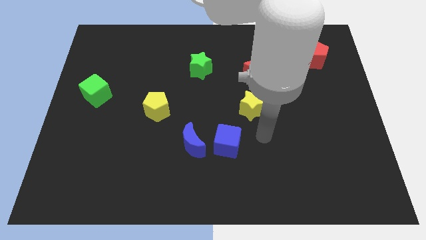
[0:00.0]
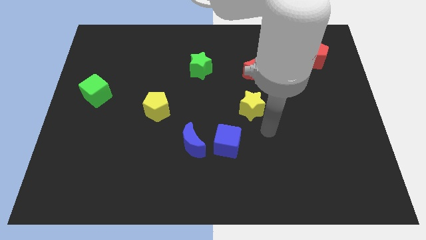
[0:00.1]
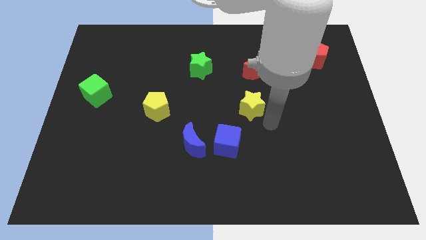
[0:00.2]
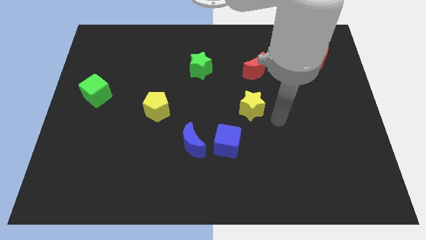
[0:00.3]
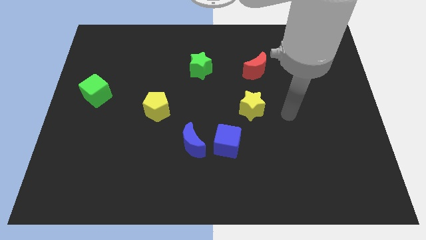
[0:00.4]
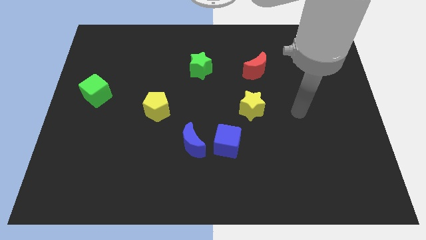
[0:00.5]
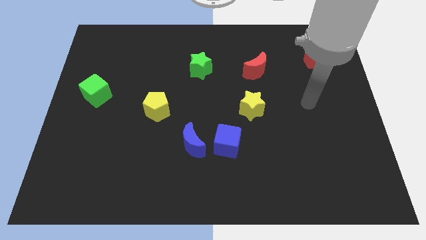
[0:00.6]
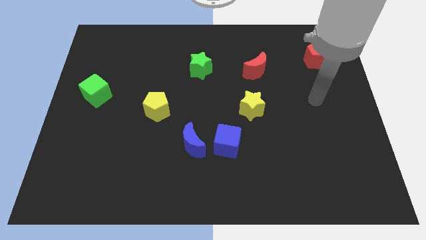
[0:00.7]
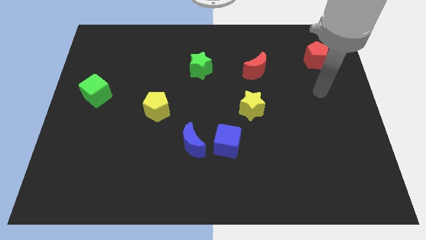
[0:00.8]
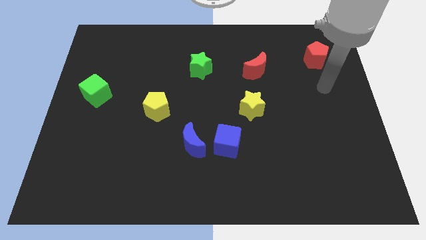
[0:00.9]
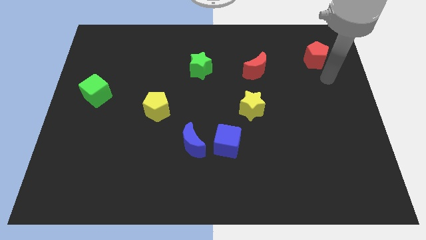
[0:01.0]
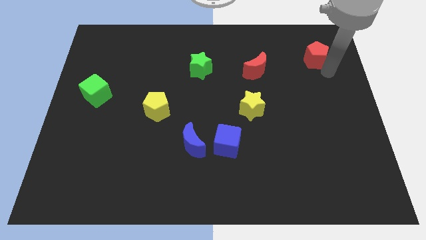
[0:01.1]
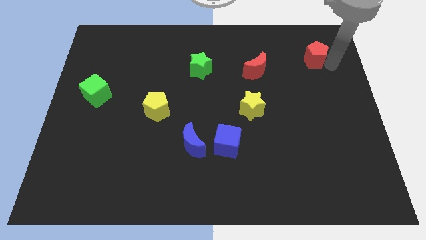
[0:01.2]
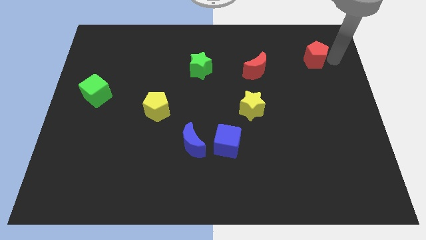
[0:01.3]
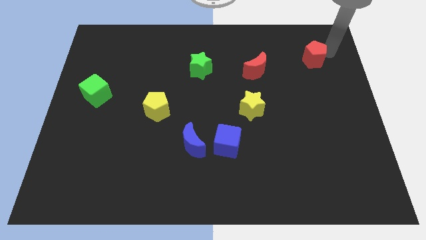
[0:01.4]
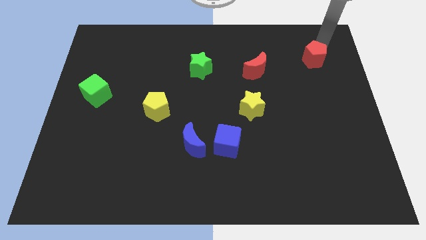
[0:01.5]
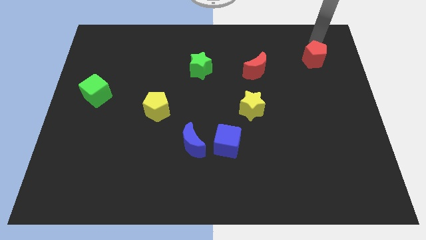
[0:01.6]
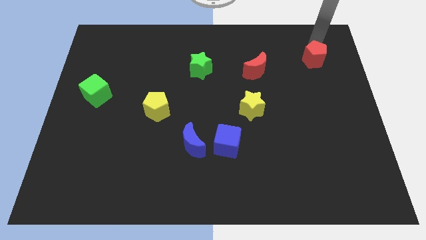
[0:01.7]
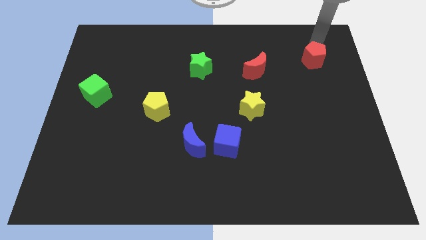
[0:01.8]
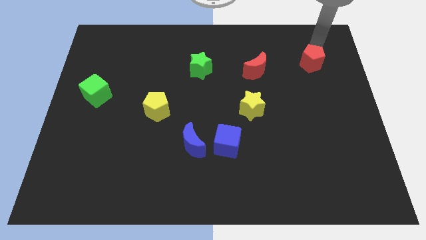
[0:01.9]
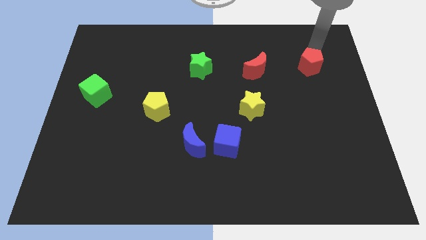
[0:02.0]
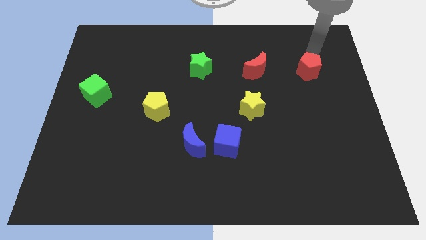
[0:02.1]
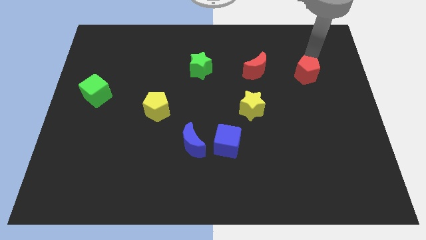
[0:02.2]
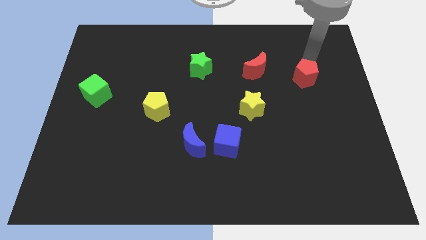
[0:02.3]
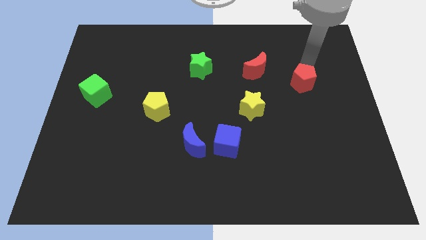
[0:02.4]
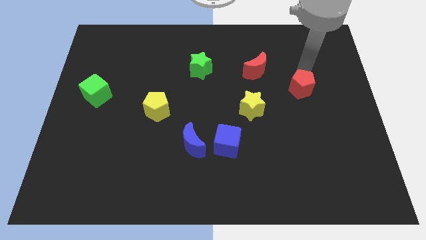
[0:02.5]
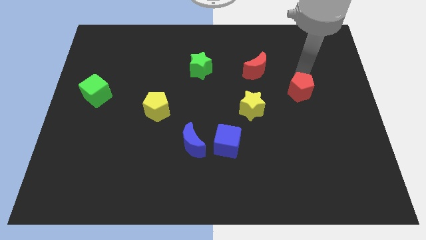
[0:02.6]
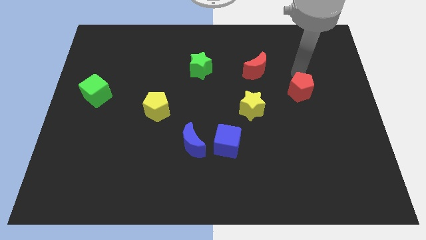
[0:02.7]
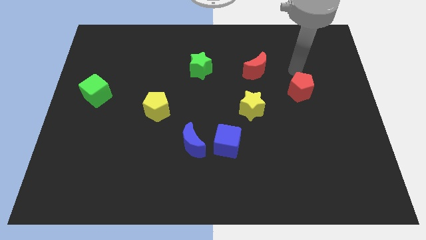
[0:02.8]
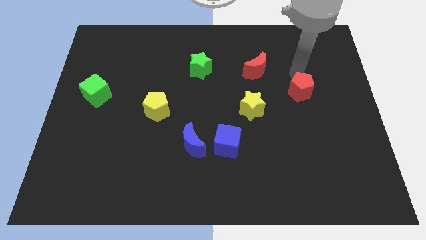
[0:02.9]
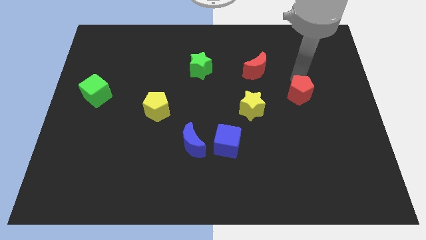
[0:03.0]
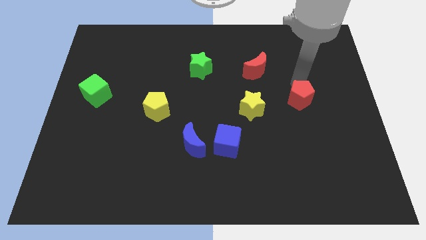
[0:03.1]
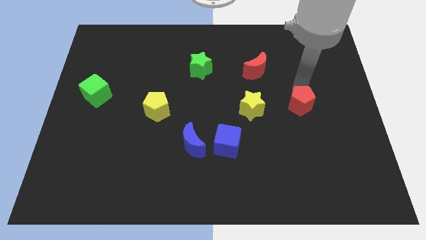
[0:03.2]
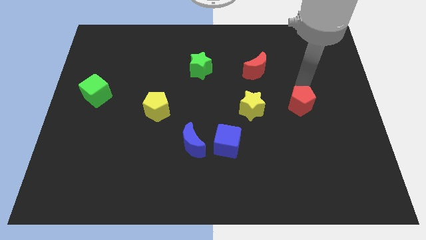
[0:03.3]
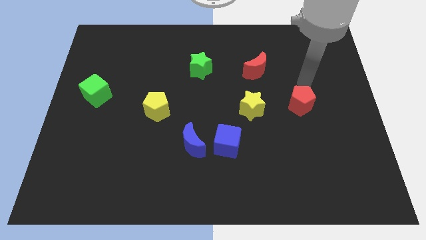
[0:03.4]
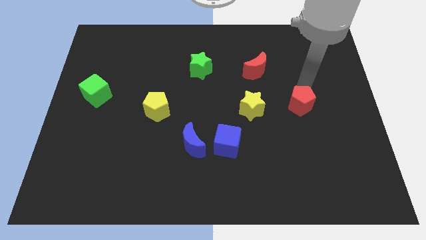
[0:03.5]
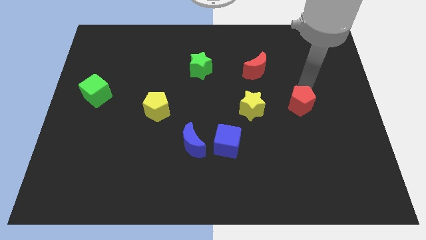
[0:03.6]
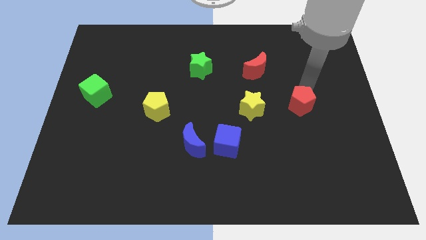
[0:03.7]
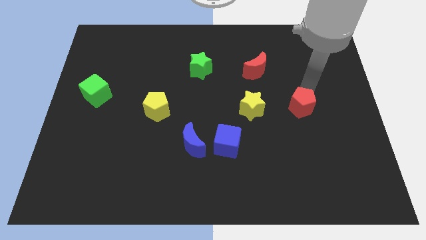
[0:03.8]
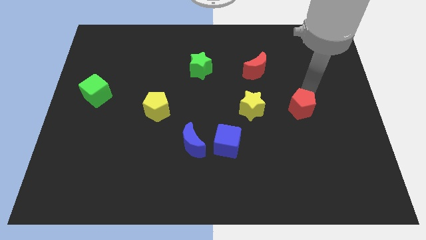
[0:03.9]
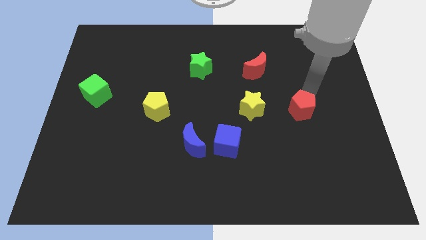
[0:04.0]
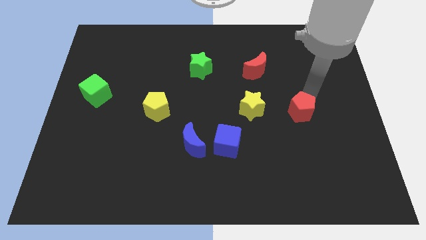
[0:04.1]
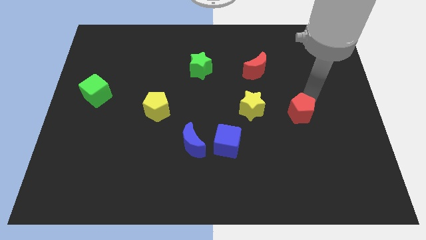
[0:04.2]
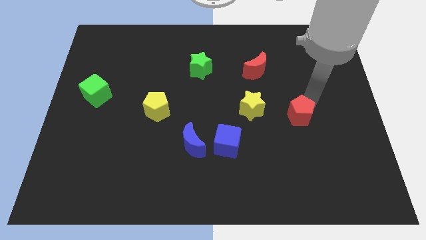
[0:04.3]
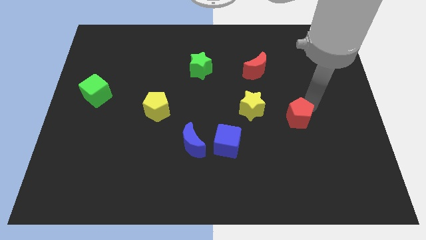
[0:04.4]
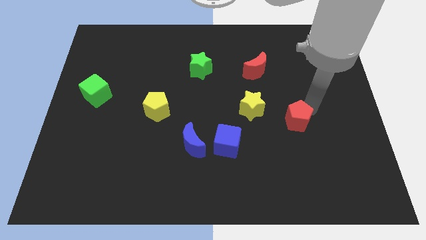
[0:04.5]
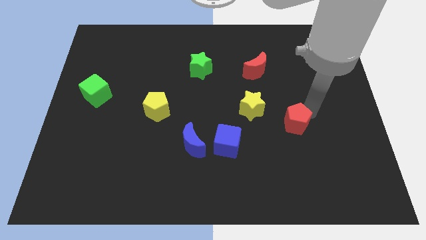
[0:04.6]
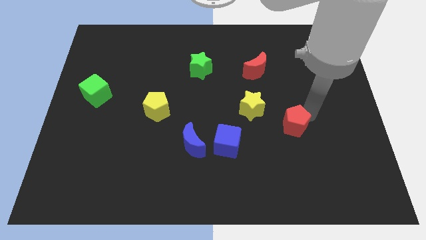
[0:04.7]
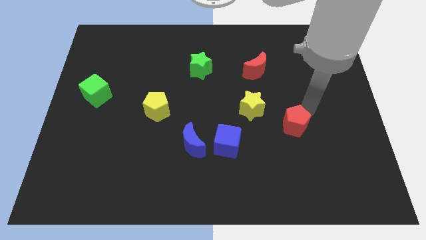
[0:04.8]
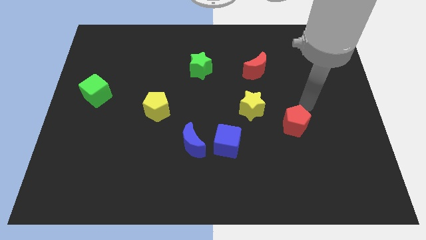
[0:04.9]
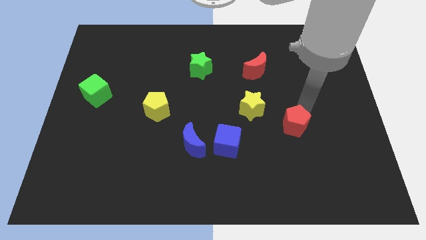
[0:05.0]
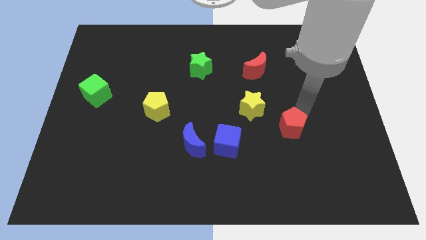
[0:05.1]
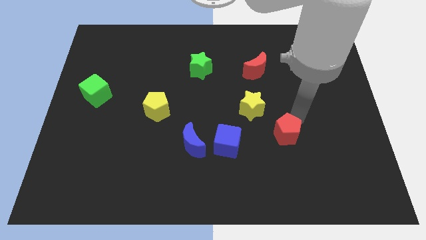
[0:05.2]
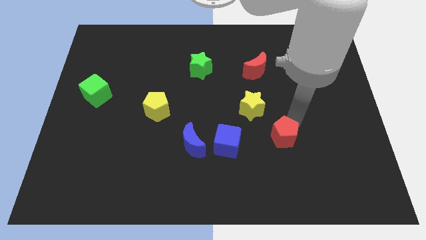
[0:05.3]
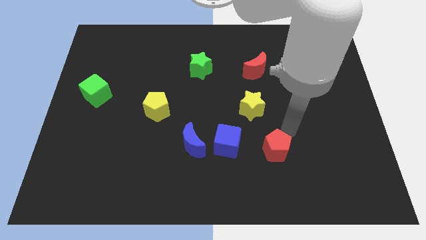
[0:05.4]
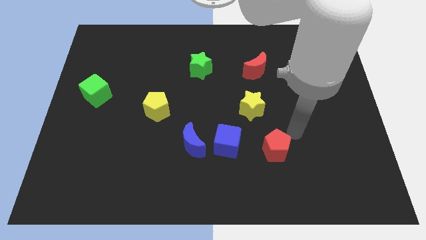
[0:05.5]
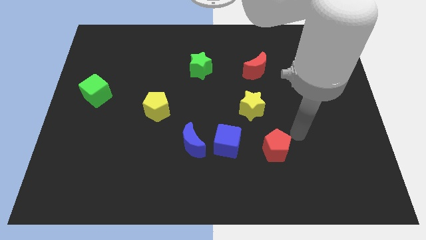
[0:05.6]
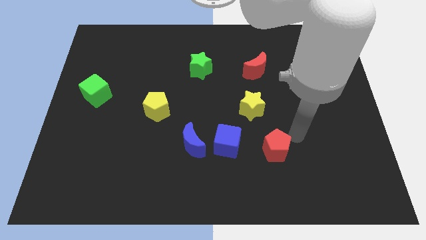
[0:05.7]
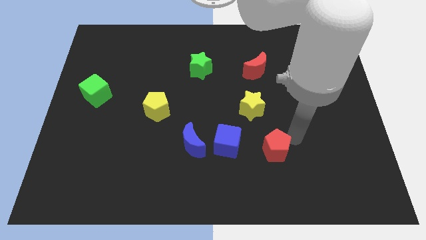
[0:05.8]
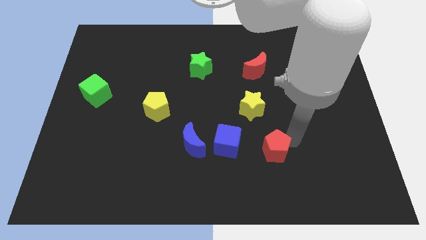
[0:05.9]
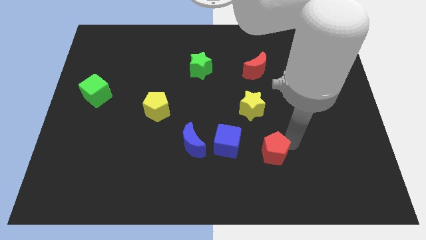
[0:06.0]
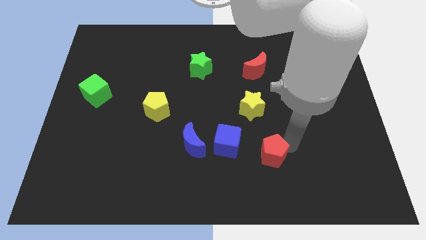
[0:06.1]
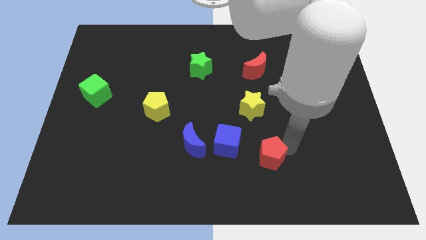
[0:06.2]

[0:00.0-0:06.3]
put the red pentagon to the bottom right side of the blue cube
